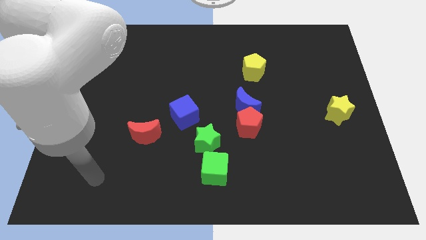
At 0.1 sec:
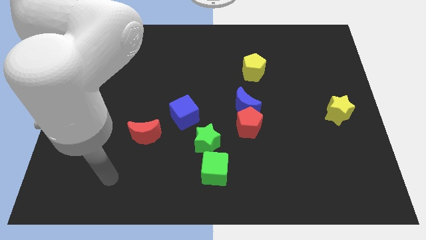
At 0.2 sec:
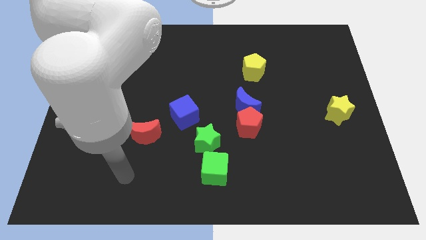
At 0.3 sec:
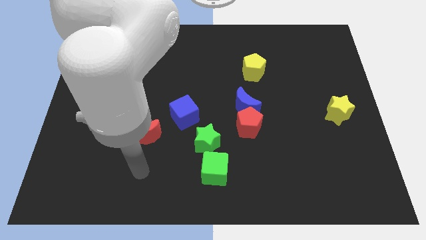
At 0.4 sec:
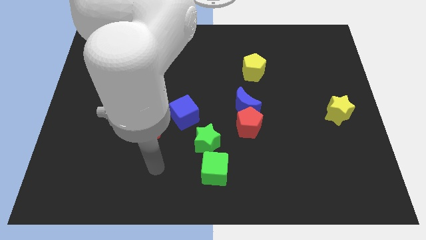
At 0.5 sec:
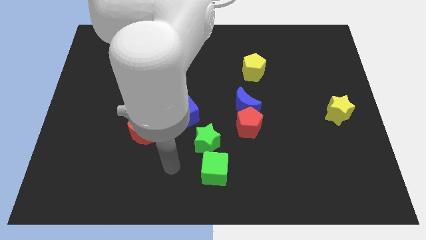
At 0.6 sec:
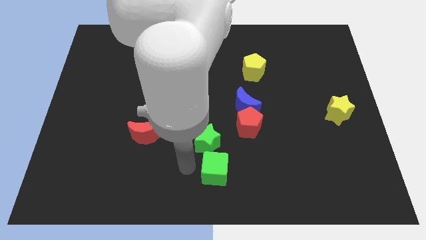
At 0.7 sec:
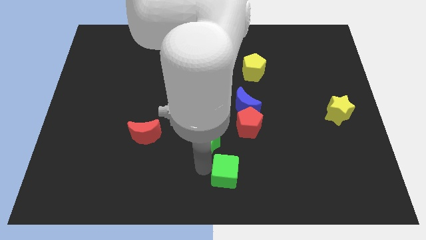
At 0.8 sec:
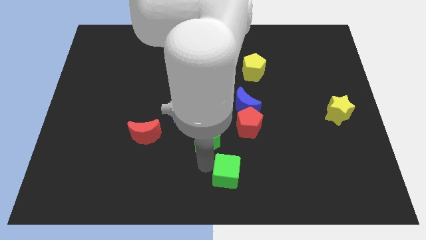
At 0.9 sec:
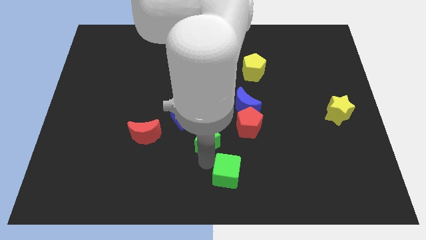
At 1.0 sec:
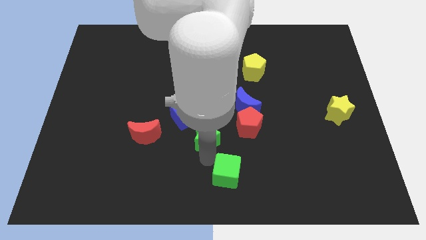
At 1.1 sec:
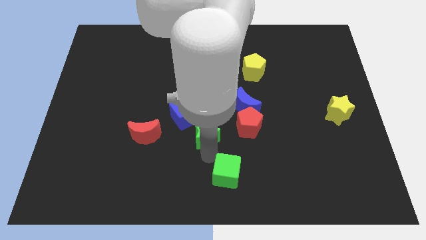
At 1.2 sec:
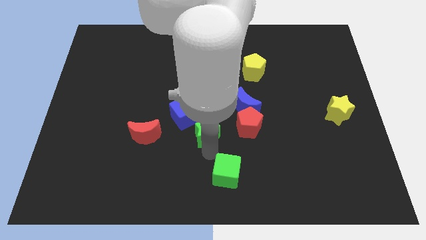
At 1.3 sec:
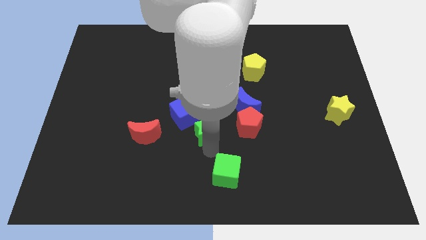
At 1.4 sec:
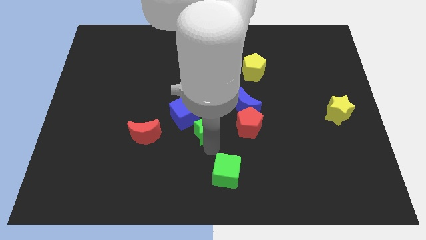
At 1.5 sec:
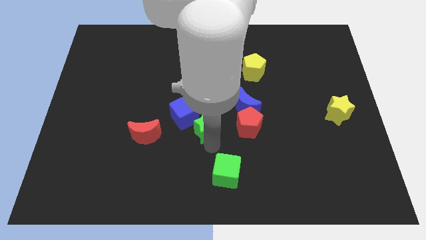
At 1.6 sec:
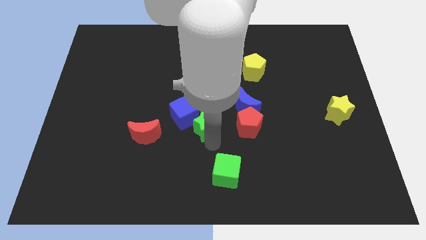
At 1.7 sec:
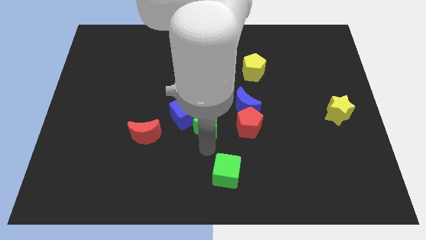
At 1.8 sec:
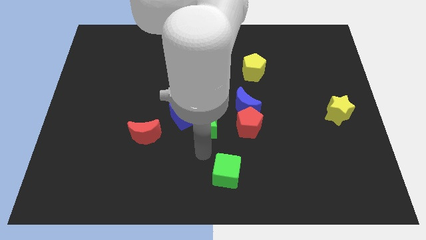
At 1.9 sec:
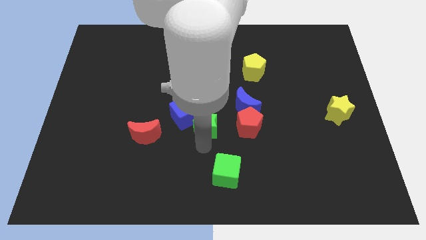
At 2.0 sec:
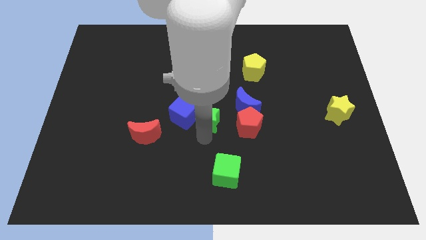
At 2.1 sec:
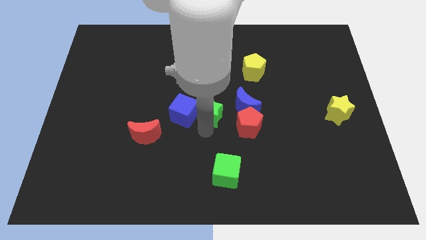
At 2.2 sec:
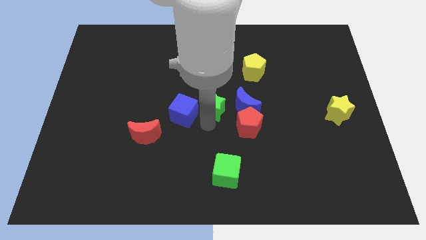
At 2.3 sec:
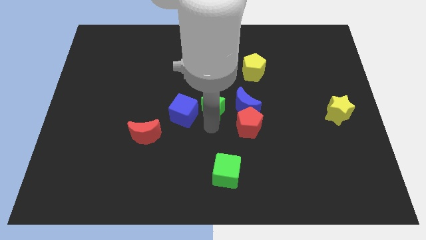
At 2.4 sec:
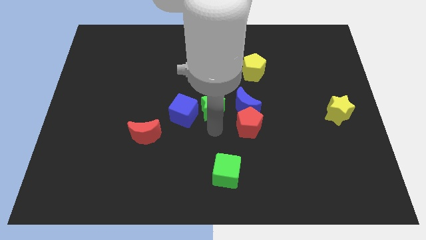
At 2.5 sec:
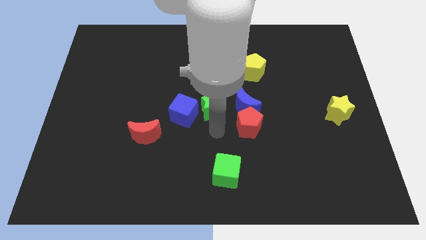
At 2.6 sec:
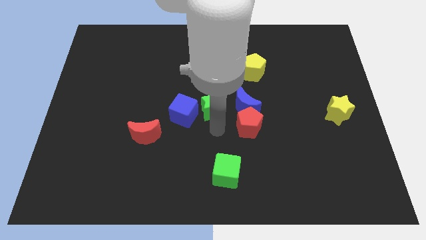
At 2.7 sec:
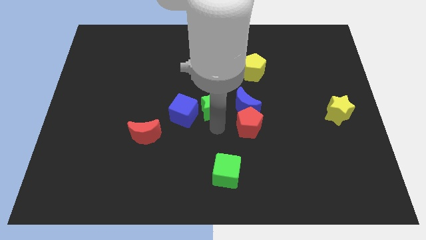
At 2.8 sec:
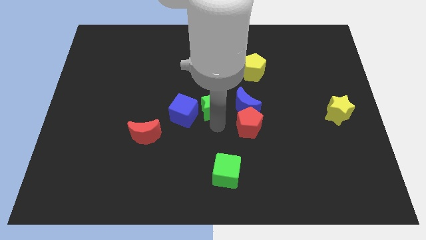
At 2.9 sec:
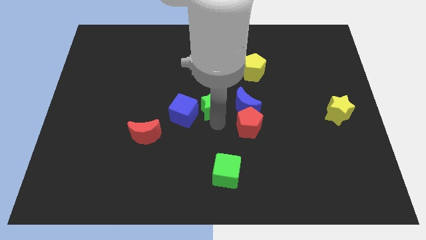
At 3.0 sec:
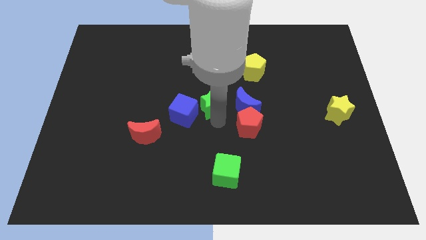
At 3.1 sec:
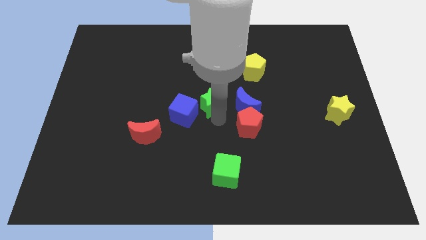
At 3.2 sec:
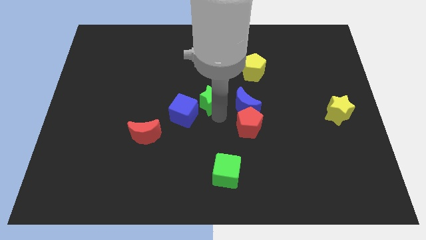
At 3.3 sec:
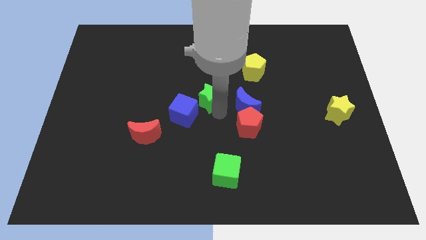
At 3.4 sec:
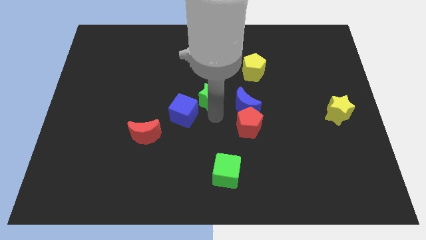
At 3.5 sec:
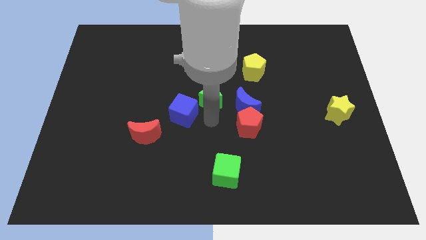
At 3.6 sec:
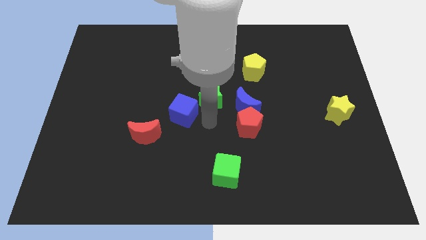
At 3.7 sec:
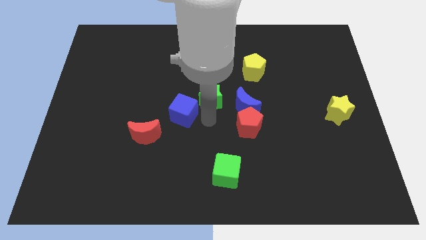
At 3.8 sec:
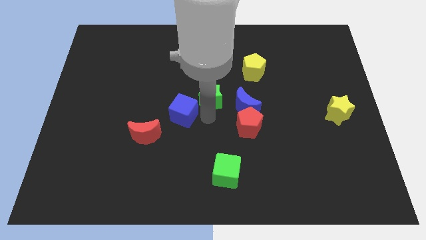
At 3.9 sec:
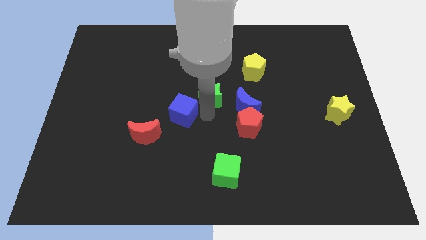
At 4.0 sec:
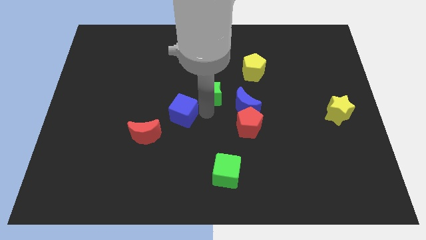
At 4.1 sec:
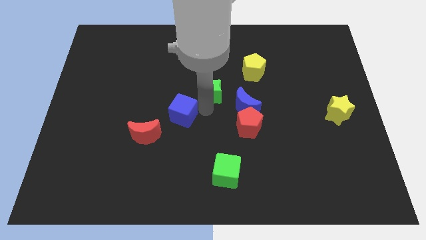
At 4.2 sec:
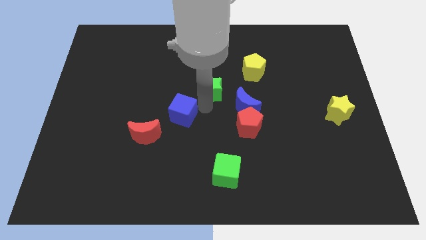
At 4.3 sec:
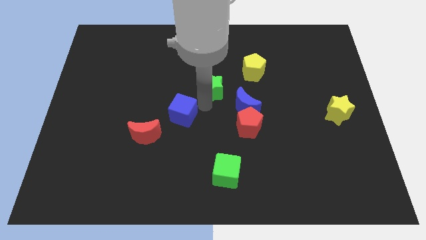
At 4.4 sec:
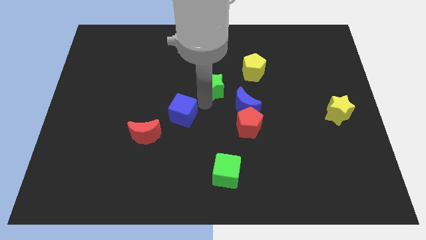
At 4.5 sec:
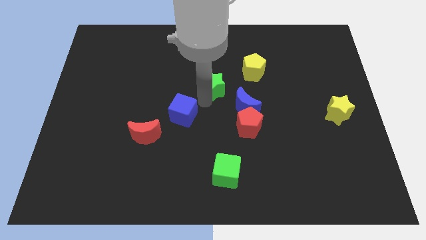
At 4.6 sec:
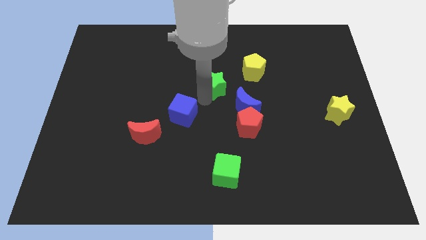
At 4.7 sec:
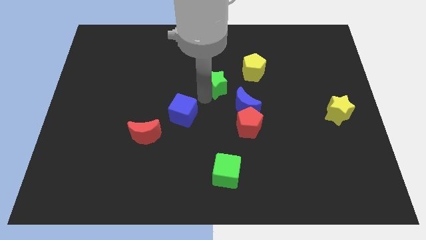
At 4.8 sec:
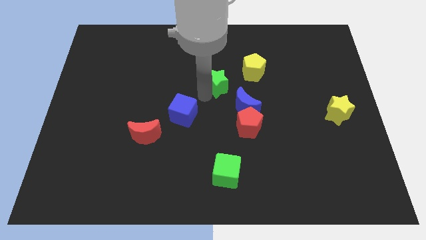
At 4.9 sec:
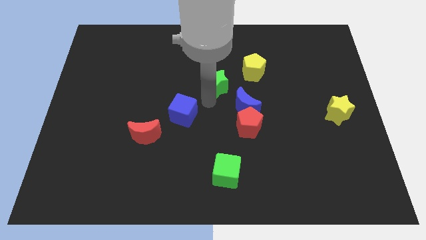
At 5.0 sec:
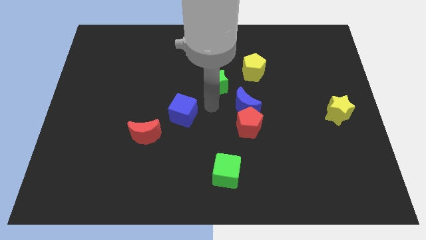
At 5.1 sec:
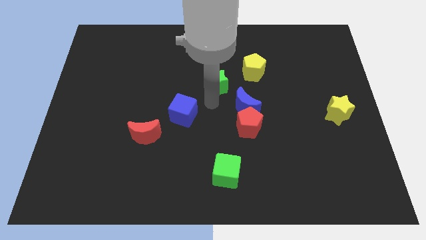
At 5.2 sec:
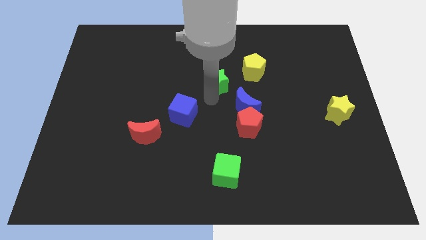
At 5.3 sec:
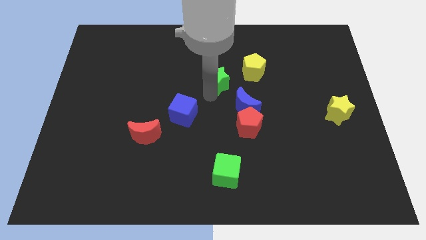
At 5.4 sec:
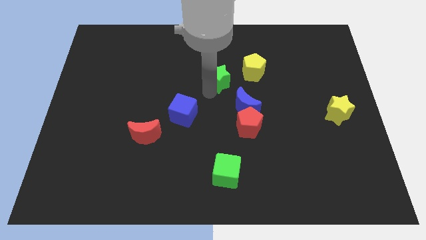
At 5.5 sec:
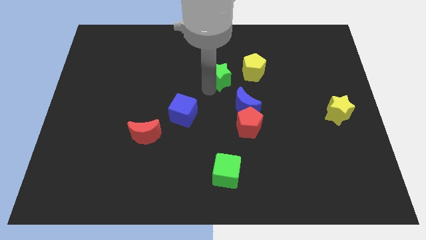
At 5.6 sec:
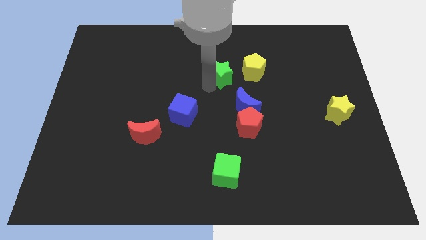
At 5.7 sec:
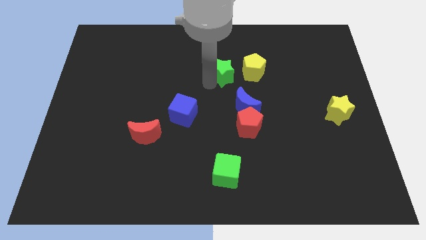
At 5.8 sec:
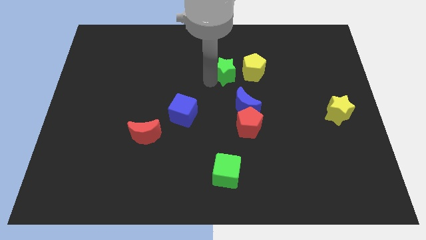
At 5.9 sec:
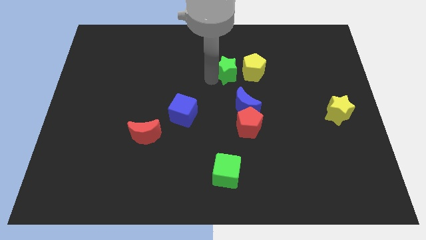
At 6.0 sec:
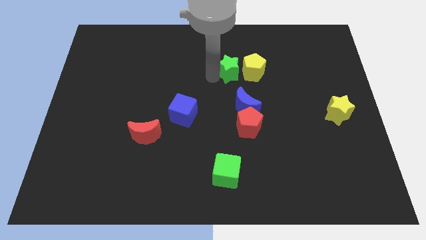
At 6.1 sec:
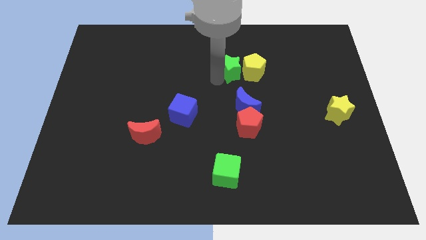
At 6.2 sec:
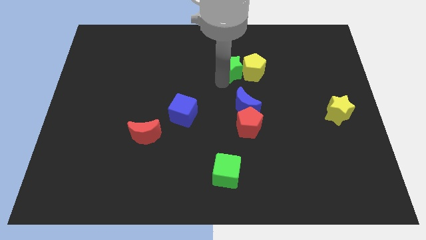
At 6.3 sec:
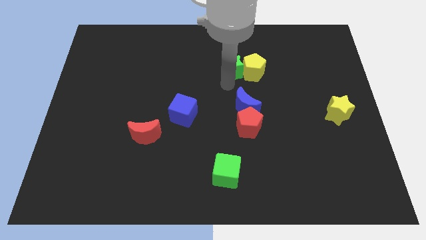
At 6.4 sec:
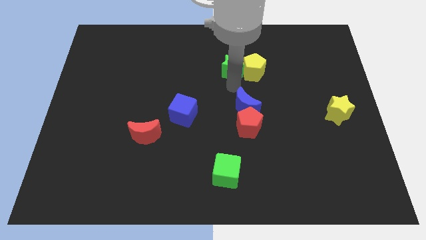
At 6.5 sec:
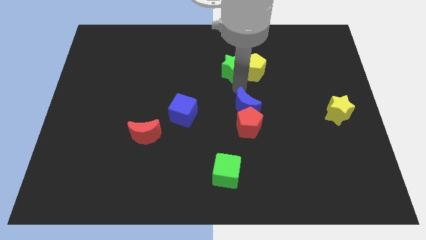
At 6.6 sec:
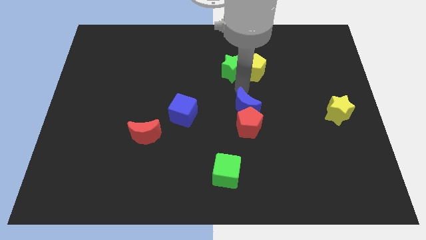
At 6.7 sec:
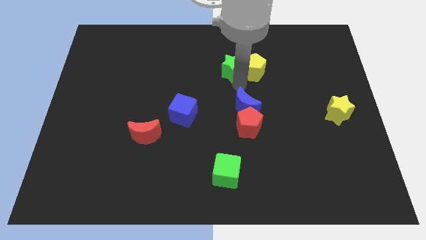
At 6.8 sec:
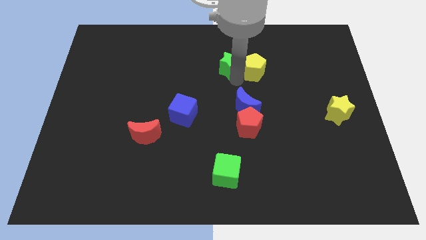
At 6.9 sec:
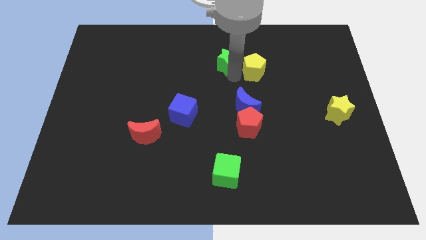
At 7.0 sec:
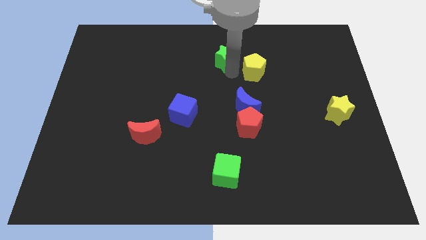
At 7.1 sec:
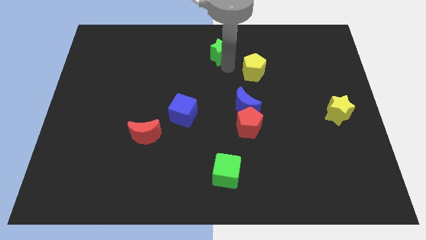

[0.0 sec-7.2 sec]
put the green star to the top
